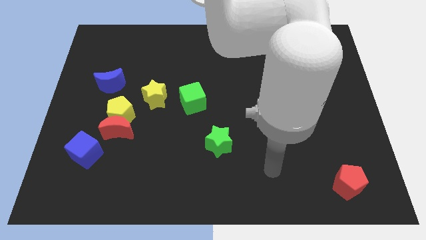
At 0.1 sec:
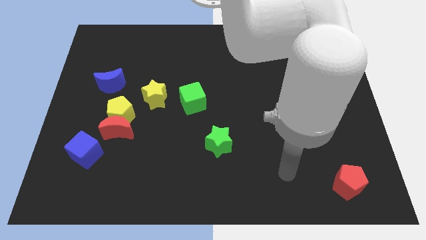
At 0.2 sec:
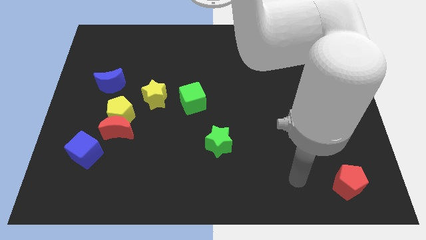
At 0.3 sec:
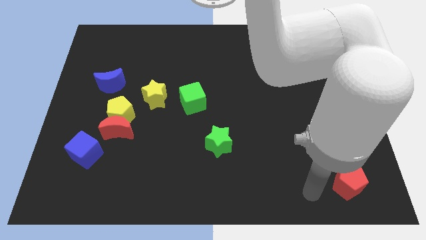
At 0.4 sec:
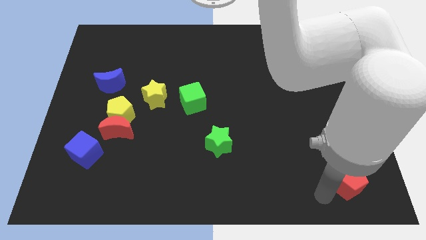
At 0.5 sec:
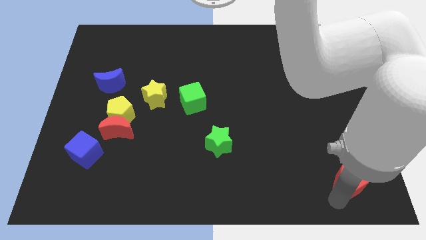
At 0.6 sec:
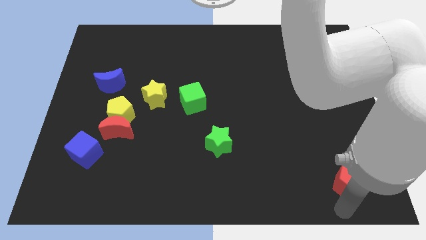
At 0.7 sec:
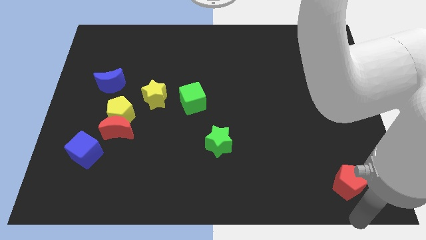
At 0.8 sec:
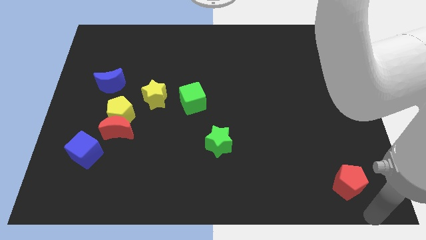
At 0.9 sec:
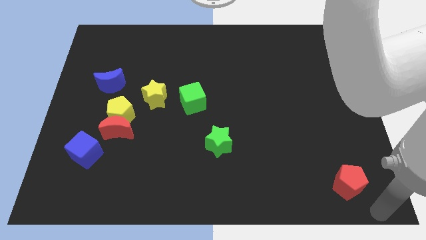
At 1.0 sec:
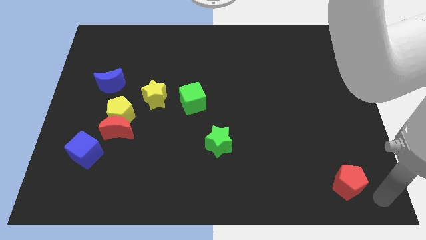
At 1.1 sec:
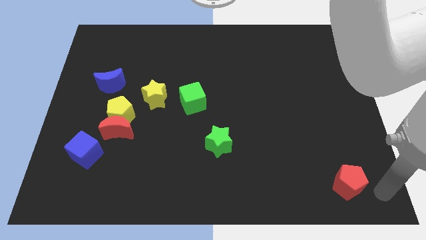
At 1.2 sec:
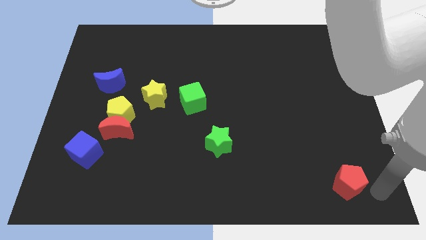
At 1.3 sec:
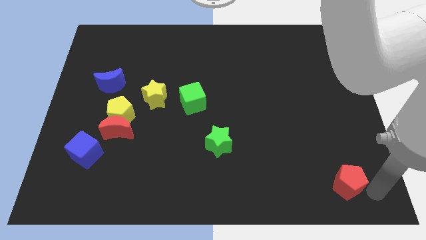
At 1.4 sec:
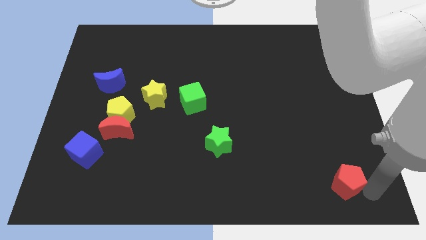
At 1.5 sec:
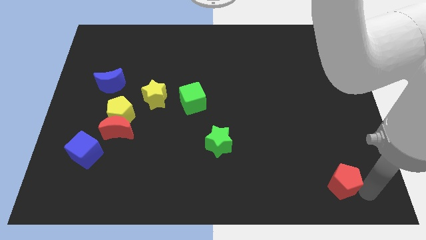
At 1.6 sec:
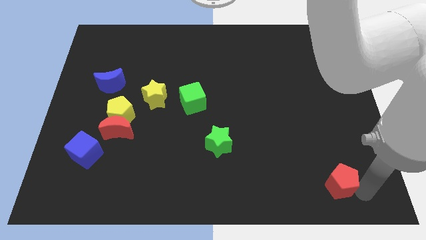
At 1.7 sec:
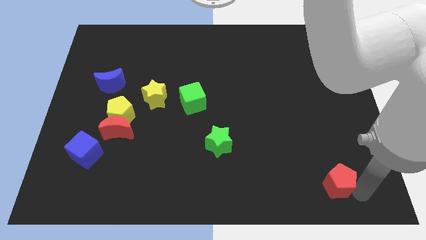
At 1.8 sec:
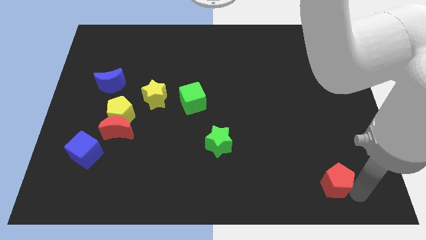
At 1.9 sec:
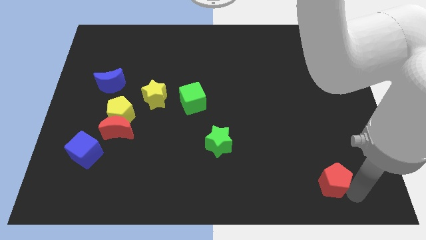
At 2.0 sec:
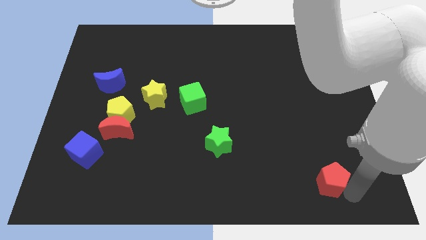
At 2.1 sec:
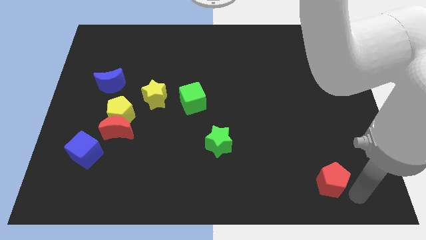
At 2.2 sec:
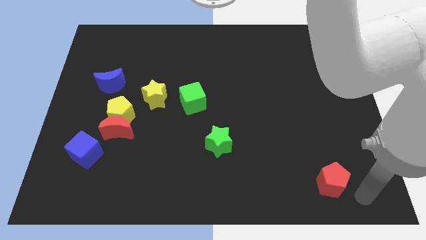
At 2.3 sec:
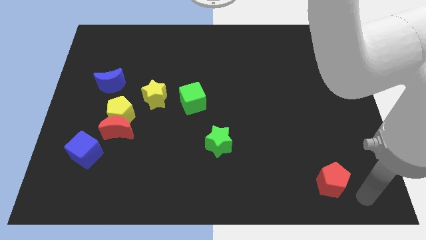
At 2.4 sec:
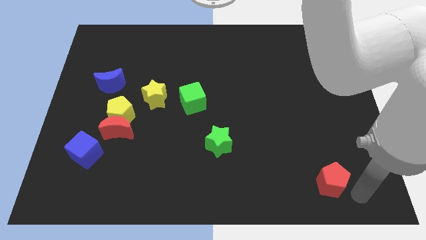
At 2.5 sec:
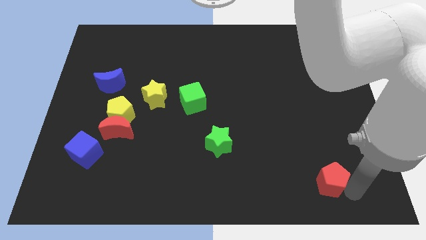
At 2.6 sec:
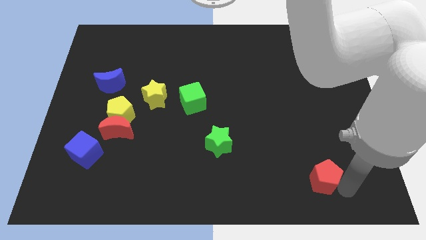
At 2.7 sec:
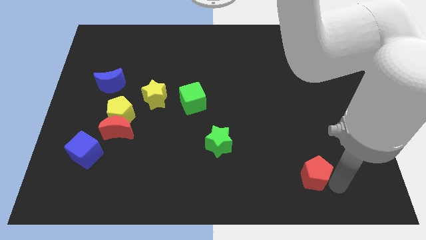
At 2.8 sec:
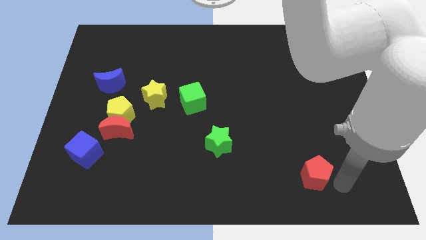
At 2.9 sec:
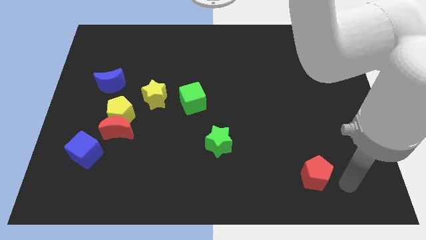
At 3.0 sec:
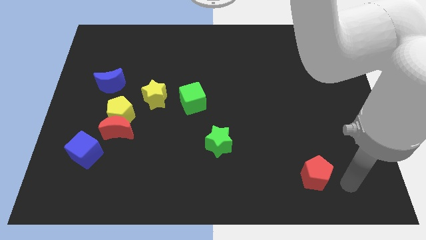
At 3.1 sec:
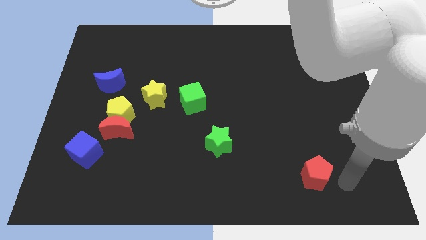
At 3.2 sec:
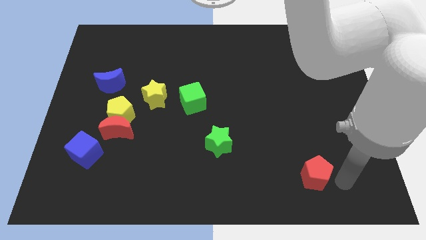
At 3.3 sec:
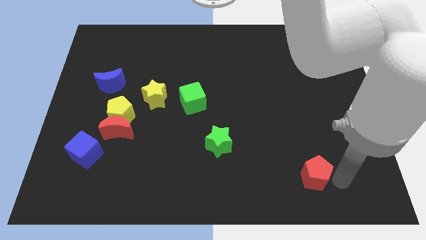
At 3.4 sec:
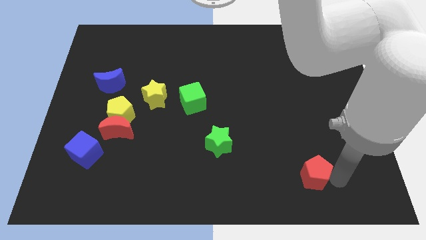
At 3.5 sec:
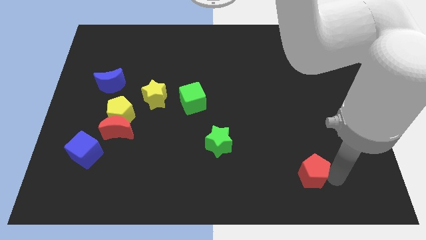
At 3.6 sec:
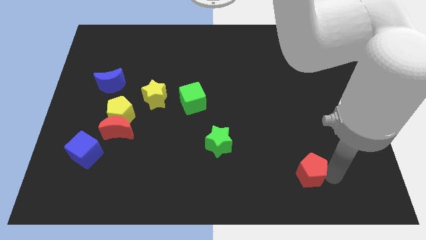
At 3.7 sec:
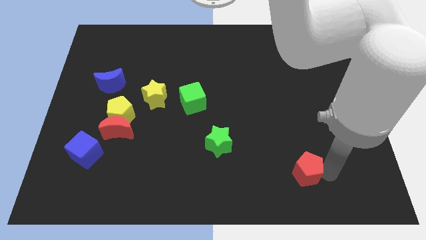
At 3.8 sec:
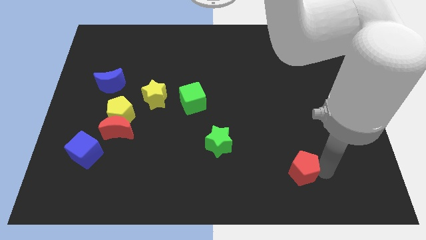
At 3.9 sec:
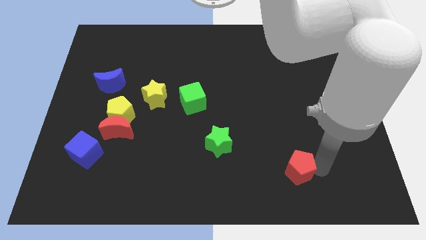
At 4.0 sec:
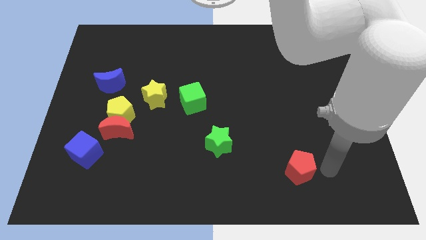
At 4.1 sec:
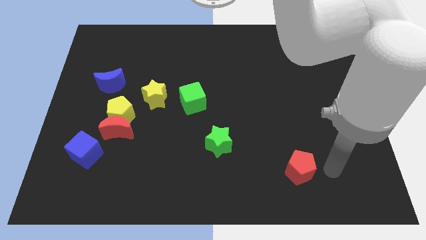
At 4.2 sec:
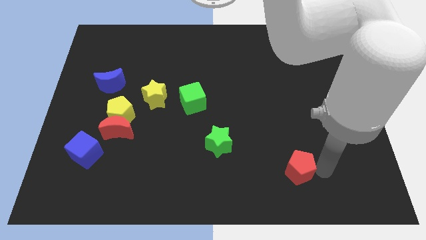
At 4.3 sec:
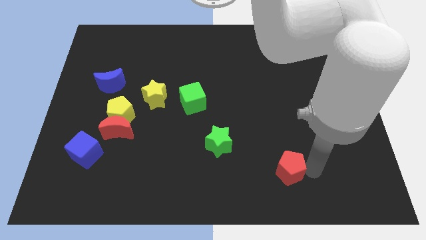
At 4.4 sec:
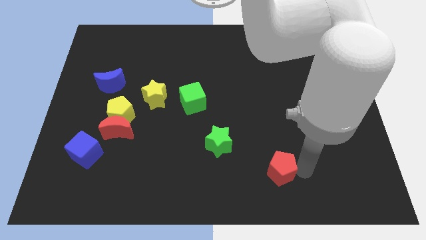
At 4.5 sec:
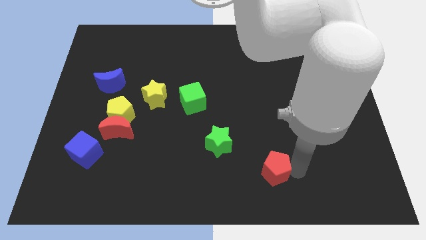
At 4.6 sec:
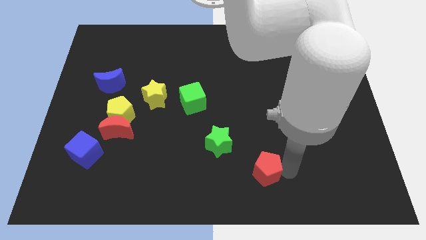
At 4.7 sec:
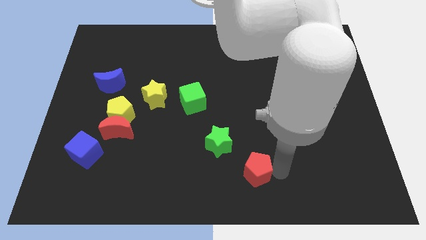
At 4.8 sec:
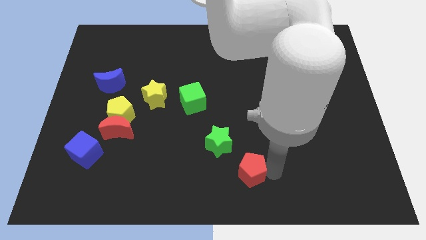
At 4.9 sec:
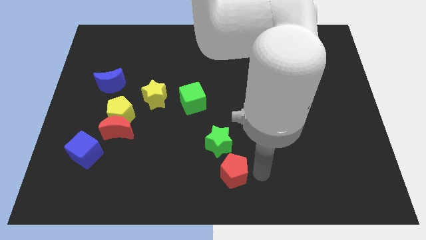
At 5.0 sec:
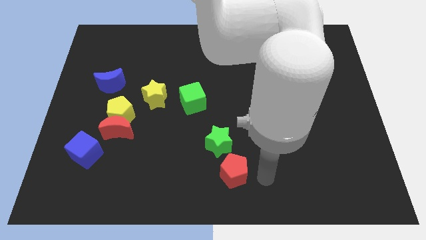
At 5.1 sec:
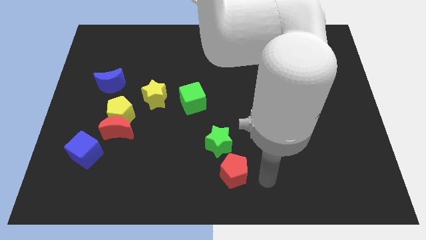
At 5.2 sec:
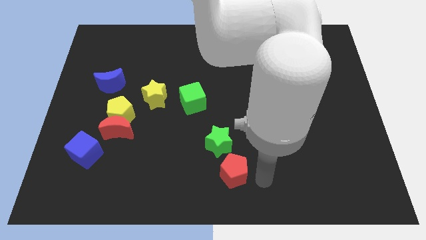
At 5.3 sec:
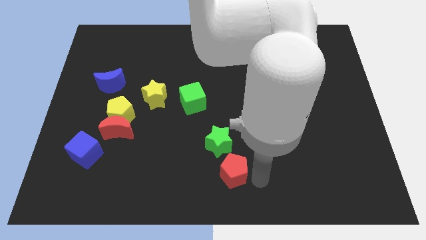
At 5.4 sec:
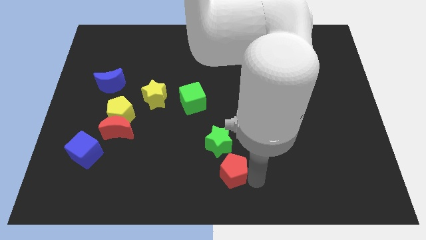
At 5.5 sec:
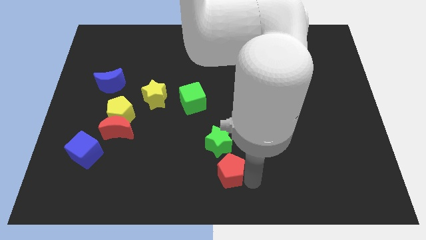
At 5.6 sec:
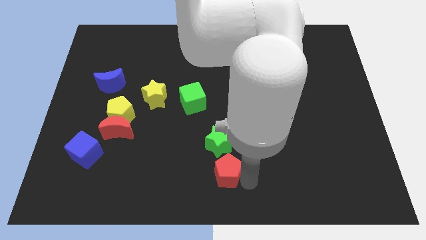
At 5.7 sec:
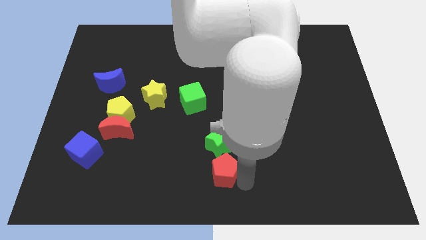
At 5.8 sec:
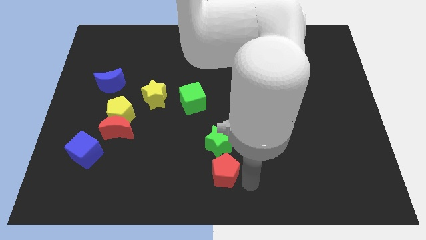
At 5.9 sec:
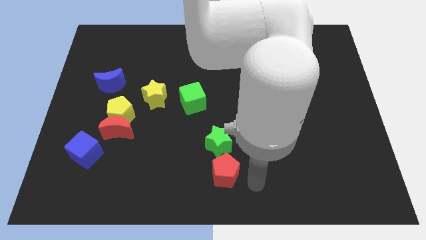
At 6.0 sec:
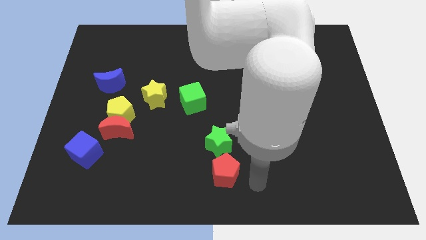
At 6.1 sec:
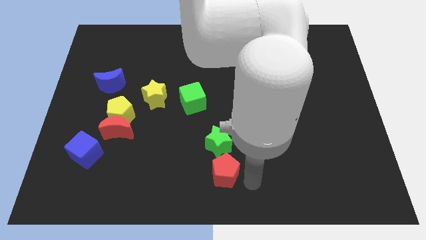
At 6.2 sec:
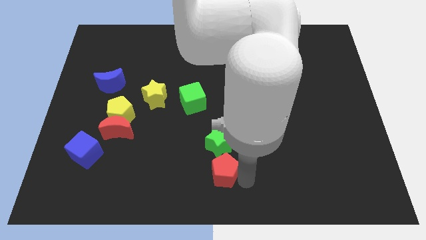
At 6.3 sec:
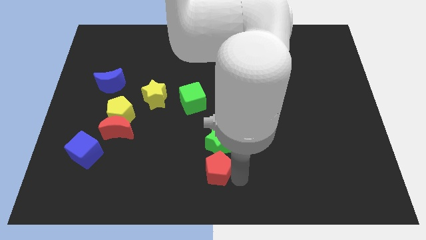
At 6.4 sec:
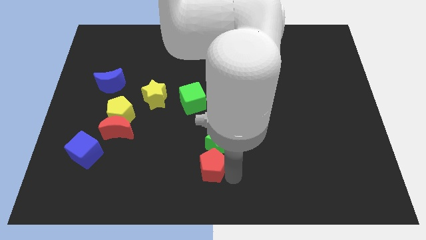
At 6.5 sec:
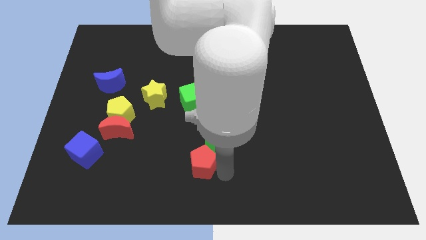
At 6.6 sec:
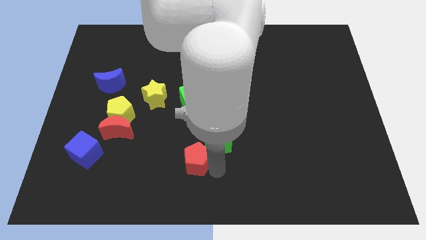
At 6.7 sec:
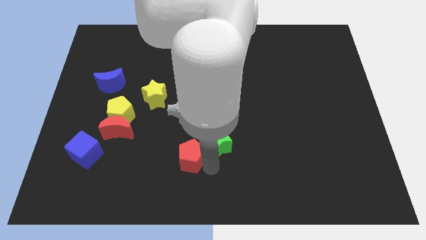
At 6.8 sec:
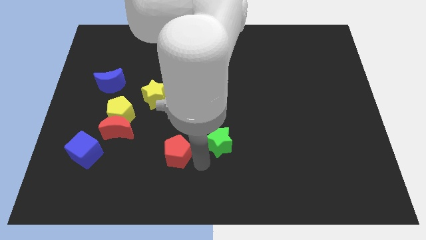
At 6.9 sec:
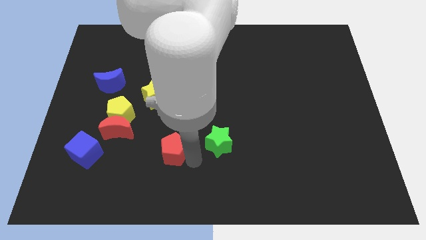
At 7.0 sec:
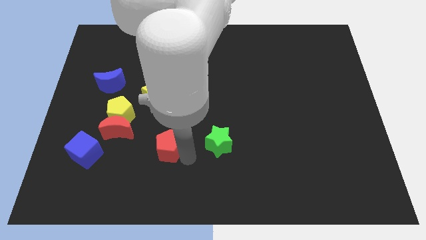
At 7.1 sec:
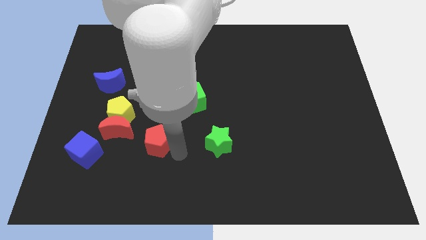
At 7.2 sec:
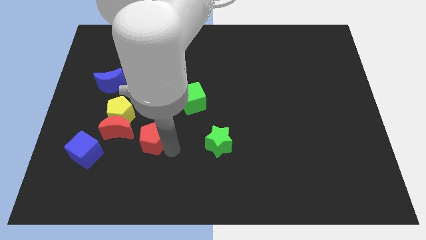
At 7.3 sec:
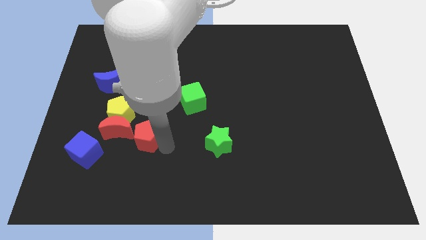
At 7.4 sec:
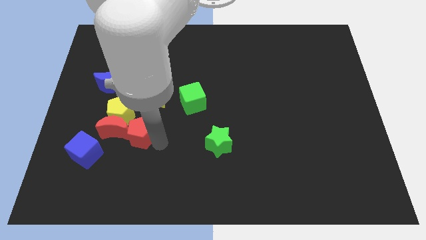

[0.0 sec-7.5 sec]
slide the red pentagon to the red moon
